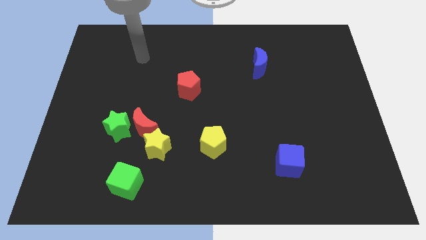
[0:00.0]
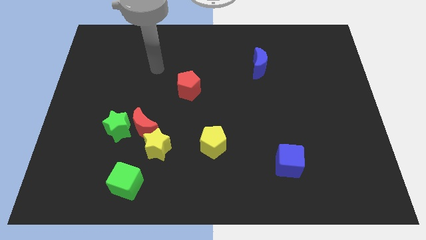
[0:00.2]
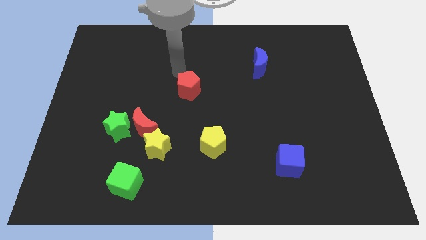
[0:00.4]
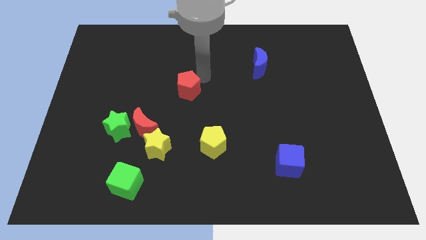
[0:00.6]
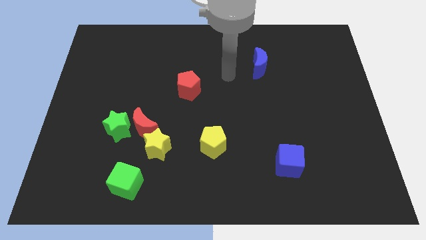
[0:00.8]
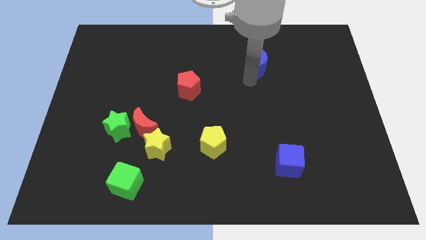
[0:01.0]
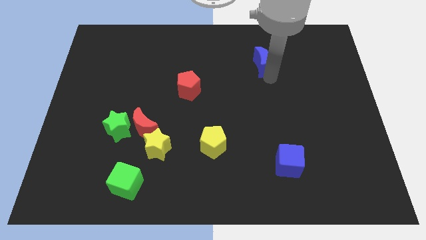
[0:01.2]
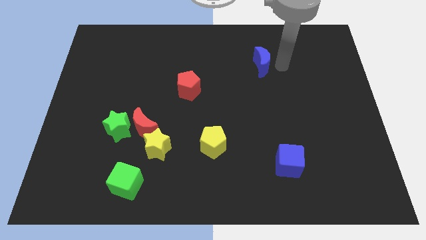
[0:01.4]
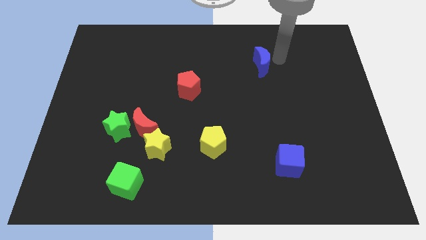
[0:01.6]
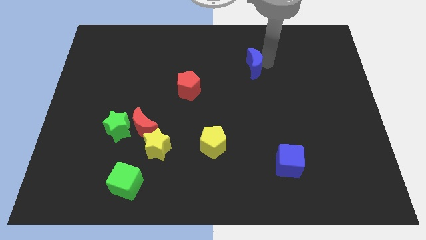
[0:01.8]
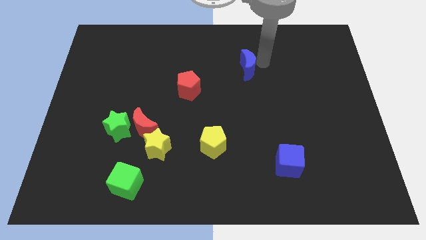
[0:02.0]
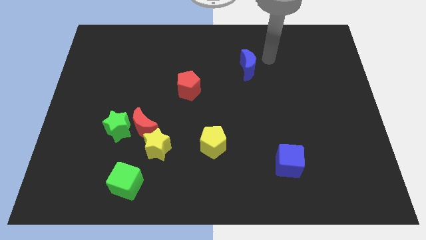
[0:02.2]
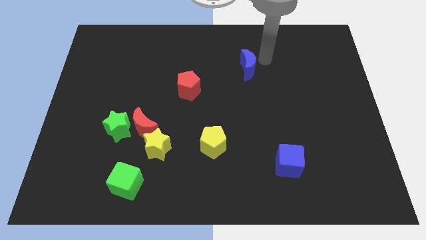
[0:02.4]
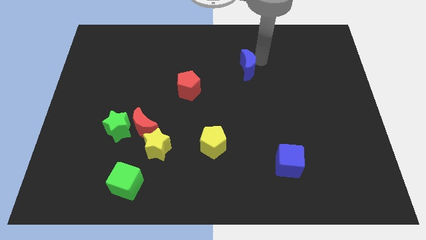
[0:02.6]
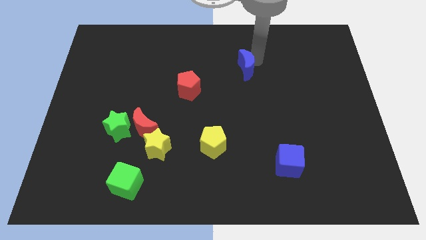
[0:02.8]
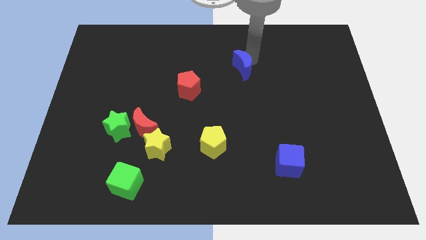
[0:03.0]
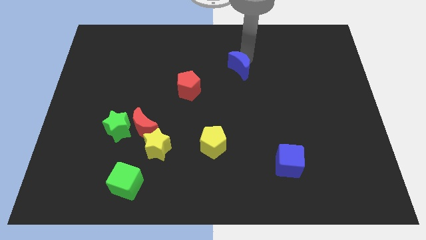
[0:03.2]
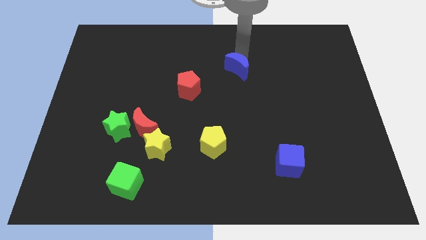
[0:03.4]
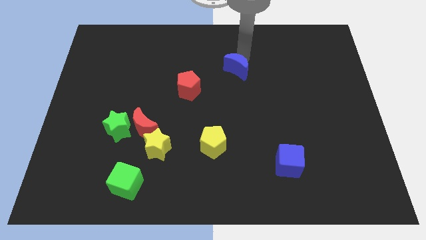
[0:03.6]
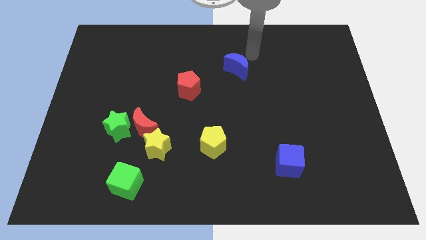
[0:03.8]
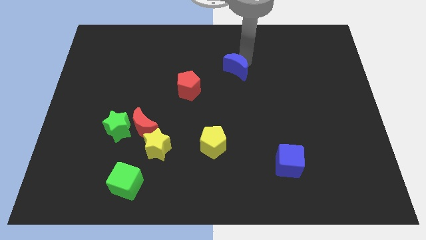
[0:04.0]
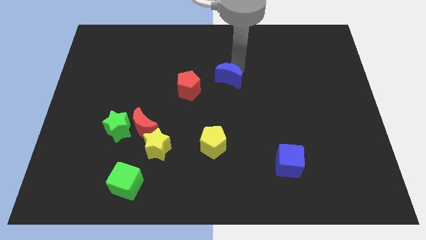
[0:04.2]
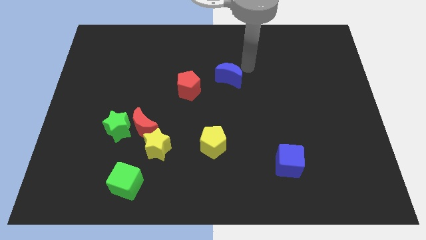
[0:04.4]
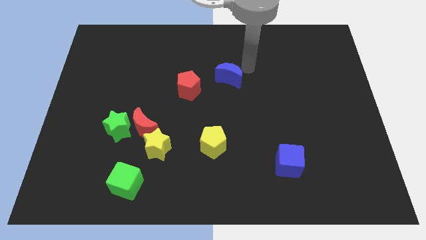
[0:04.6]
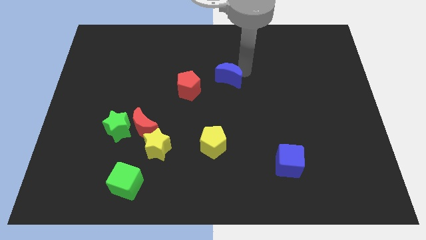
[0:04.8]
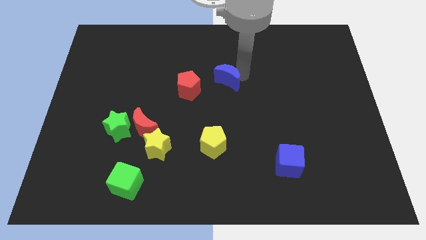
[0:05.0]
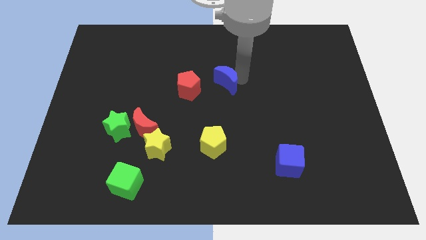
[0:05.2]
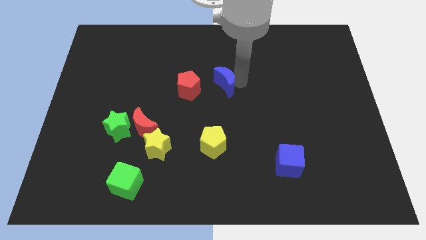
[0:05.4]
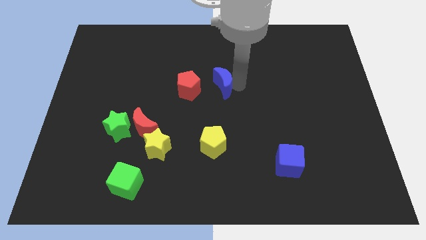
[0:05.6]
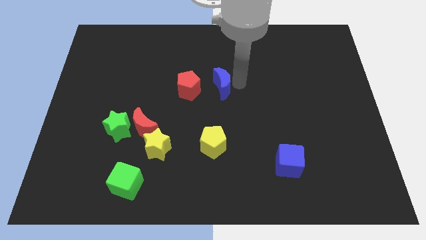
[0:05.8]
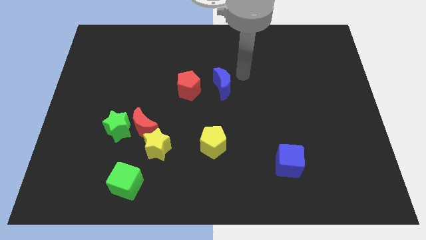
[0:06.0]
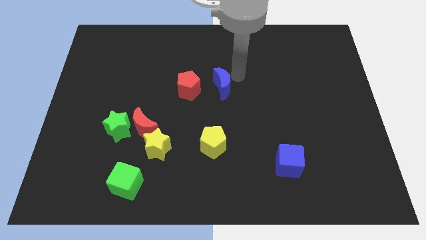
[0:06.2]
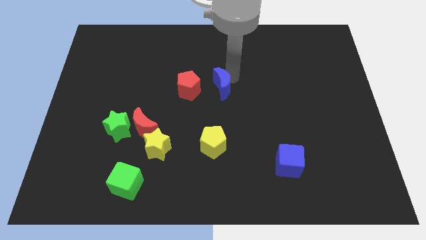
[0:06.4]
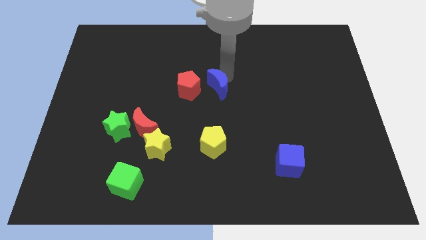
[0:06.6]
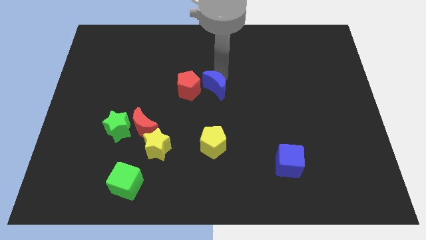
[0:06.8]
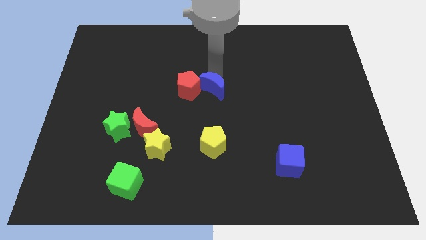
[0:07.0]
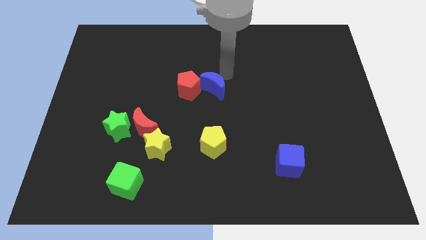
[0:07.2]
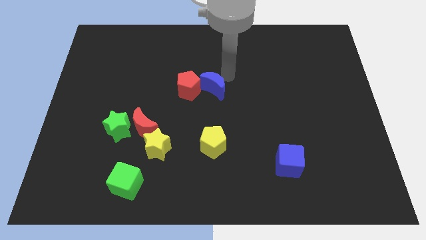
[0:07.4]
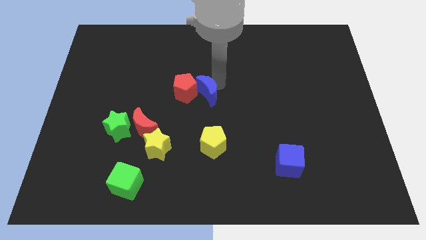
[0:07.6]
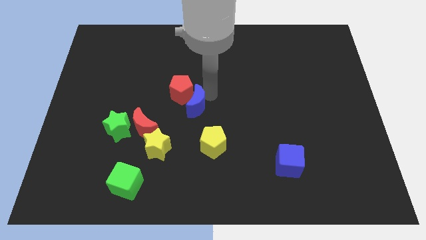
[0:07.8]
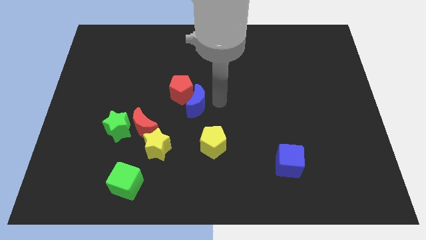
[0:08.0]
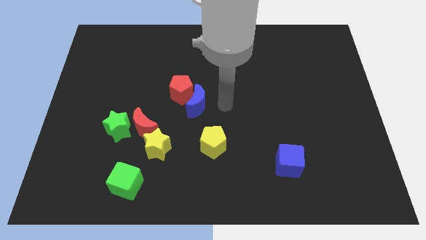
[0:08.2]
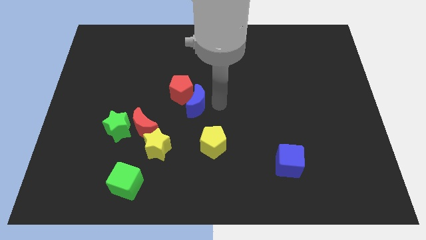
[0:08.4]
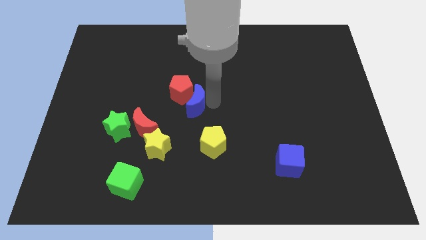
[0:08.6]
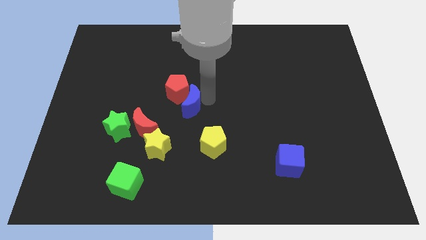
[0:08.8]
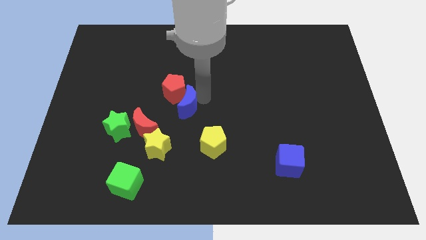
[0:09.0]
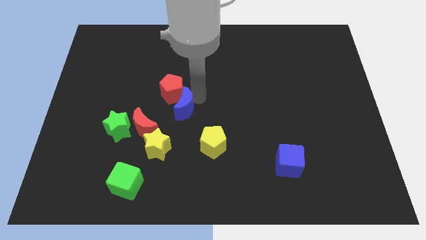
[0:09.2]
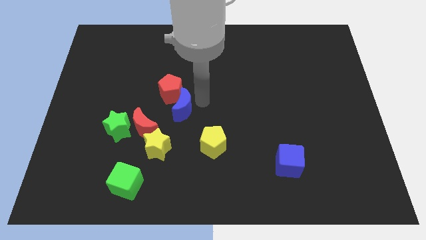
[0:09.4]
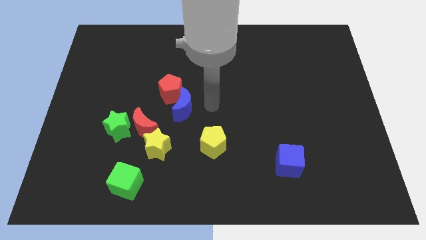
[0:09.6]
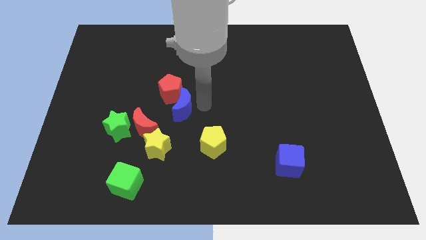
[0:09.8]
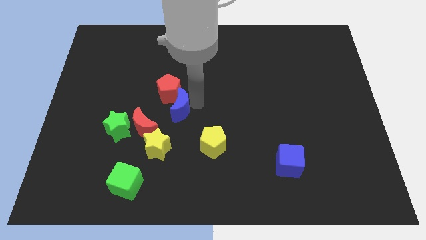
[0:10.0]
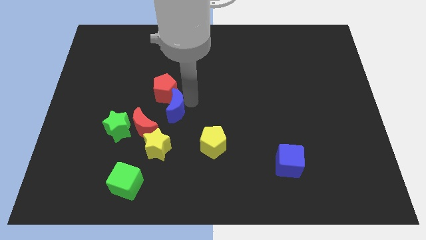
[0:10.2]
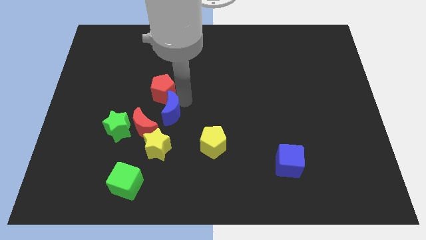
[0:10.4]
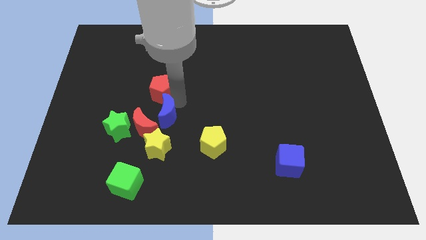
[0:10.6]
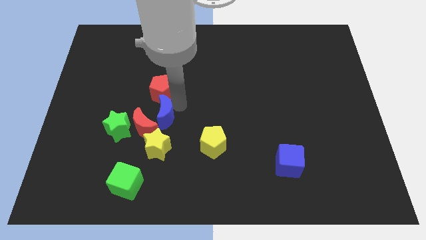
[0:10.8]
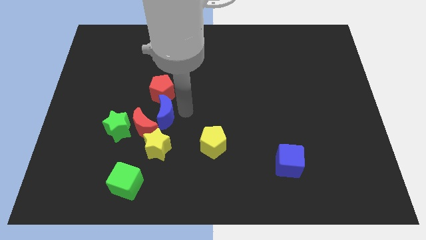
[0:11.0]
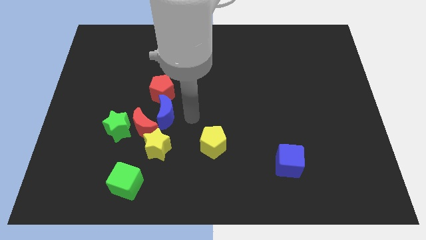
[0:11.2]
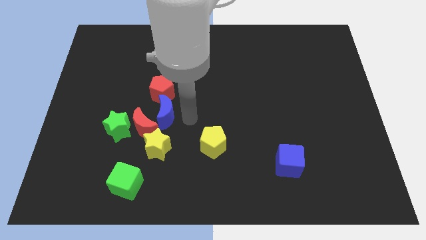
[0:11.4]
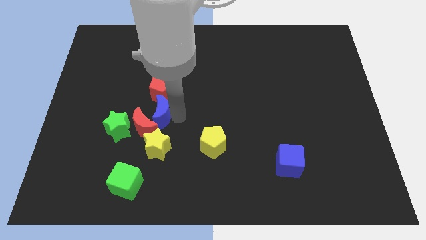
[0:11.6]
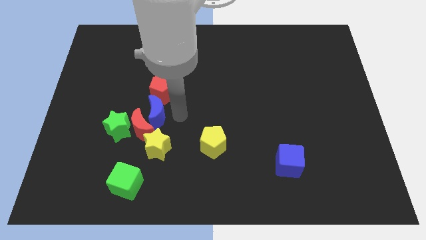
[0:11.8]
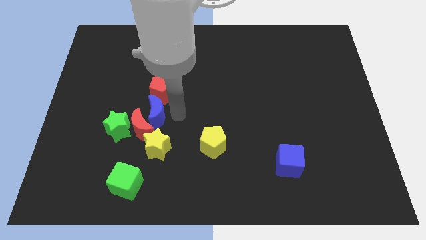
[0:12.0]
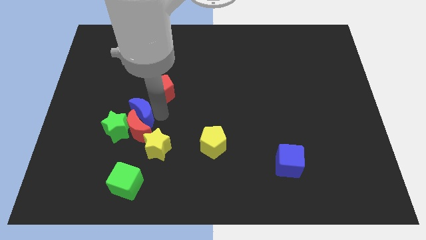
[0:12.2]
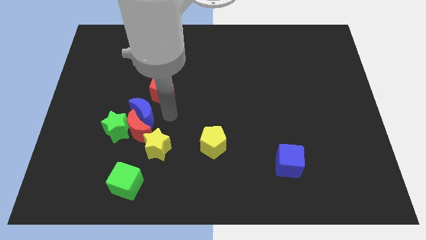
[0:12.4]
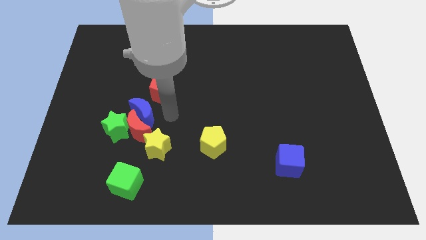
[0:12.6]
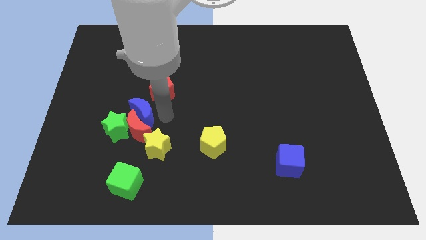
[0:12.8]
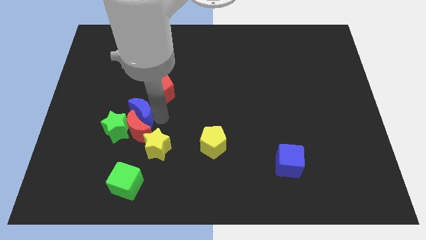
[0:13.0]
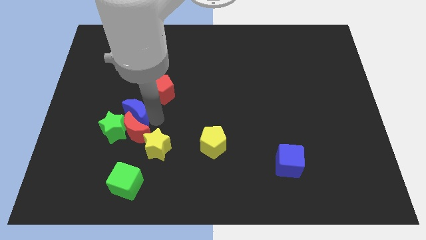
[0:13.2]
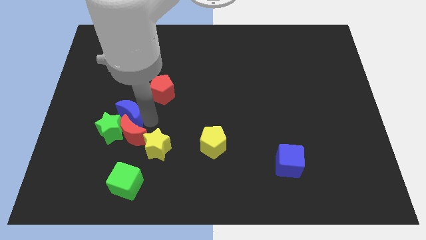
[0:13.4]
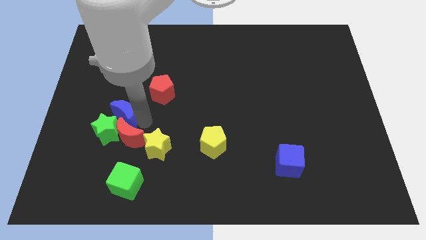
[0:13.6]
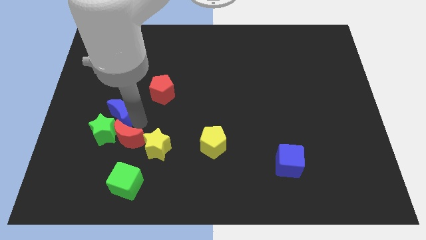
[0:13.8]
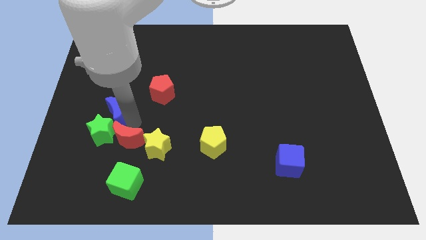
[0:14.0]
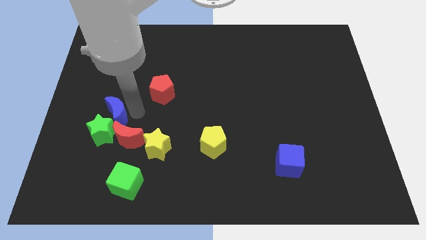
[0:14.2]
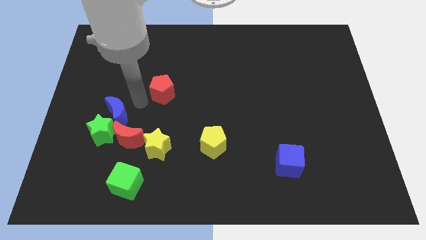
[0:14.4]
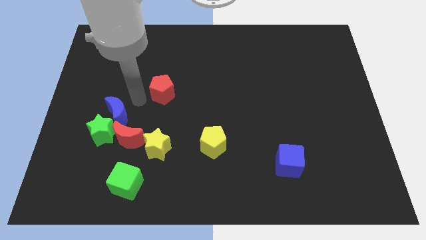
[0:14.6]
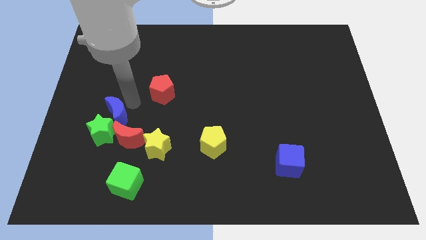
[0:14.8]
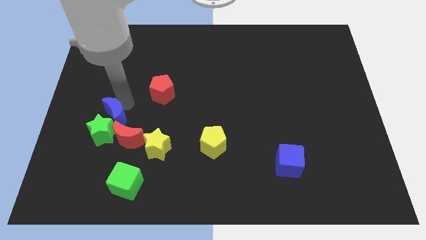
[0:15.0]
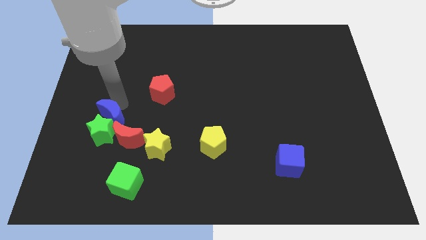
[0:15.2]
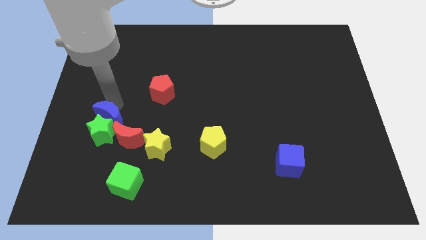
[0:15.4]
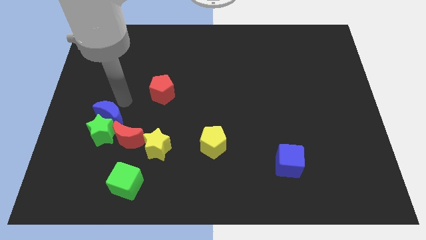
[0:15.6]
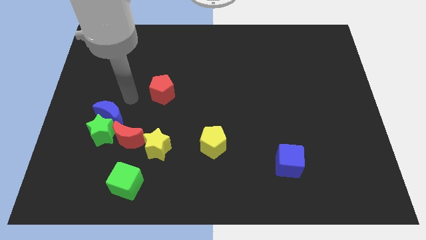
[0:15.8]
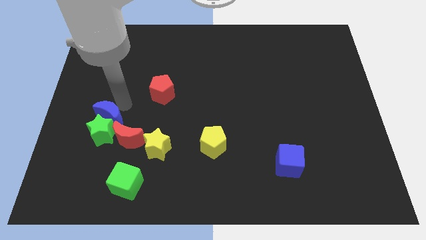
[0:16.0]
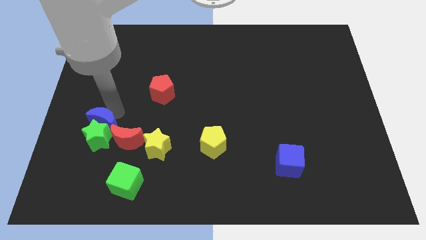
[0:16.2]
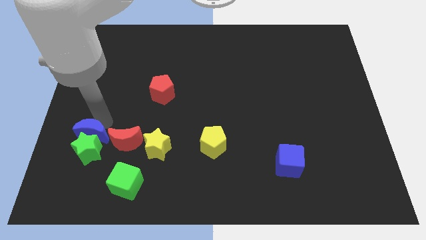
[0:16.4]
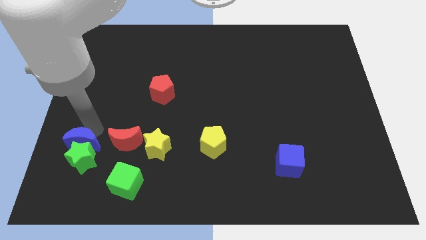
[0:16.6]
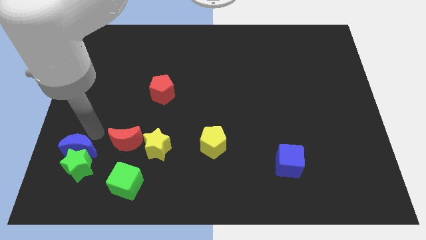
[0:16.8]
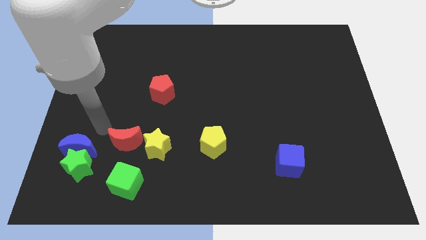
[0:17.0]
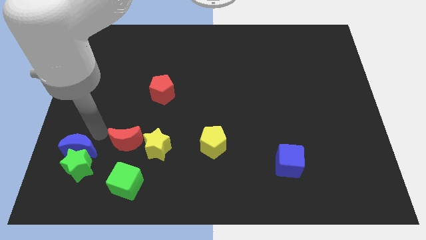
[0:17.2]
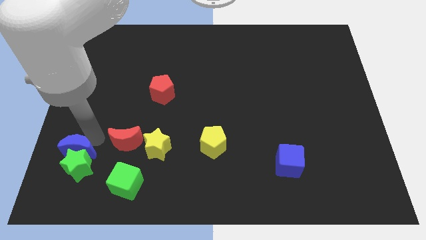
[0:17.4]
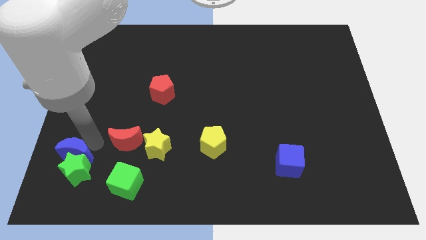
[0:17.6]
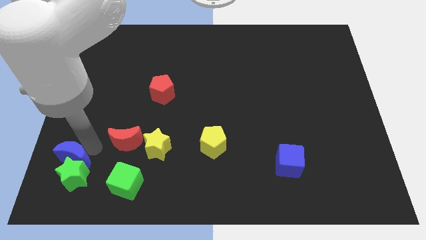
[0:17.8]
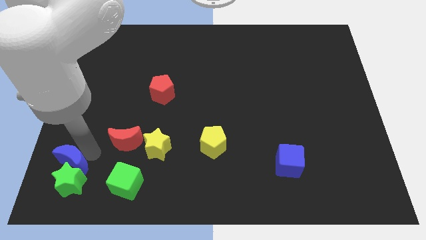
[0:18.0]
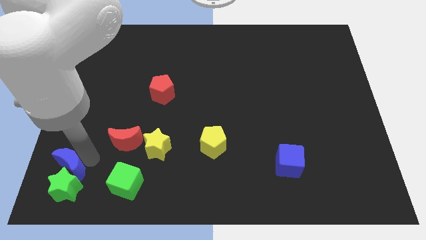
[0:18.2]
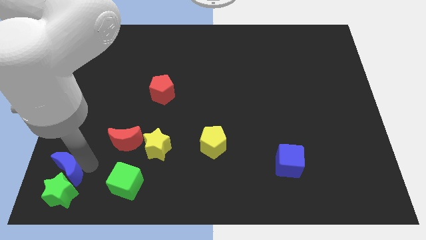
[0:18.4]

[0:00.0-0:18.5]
put the blue moon to the bottom left
